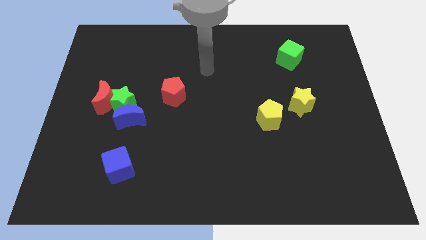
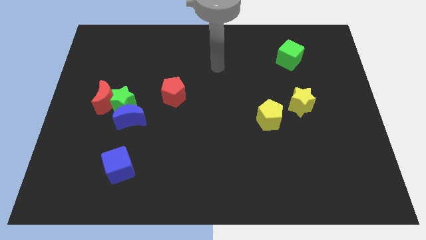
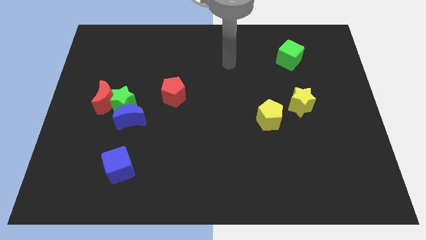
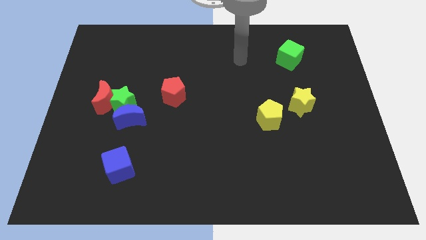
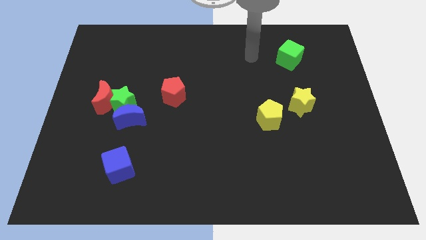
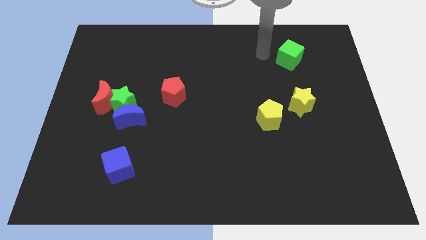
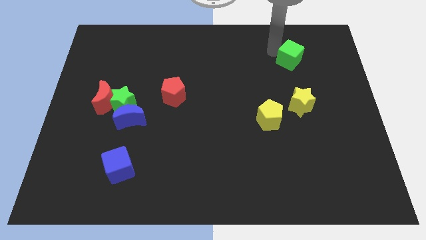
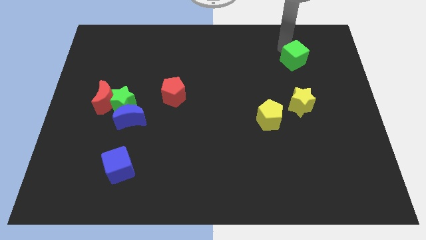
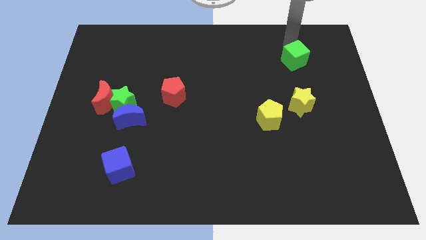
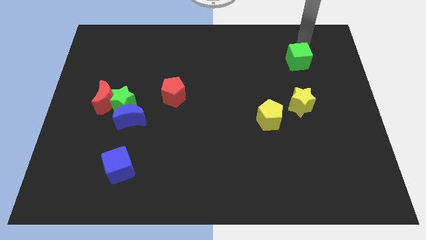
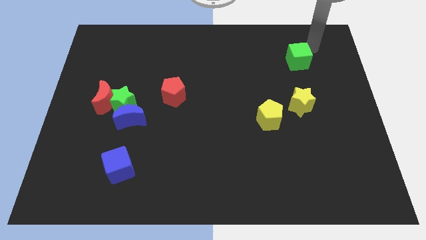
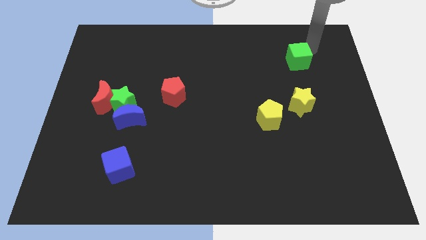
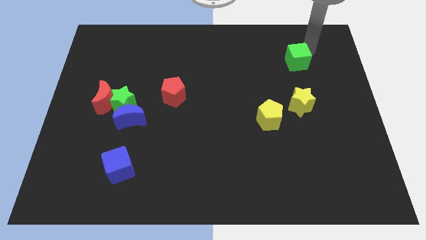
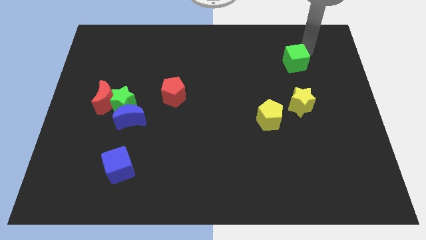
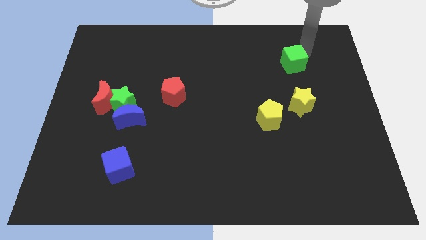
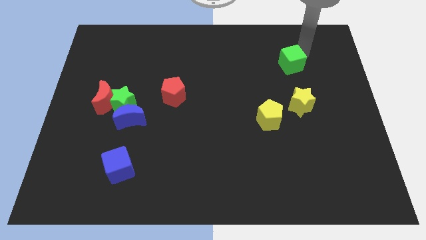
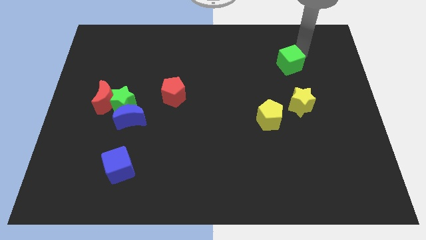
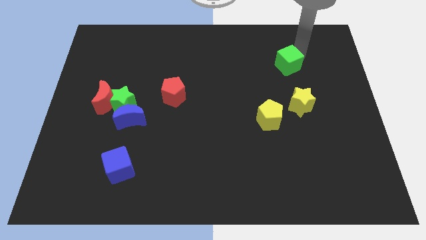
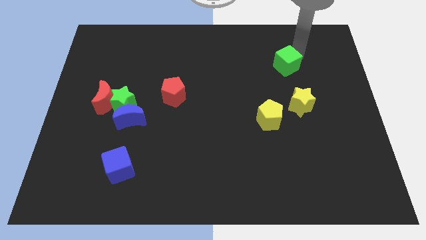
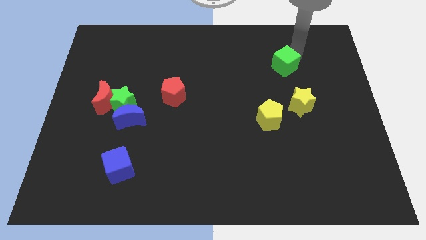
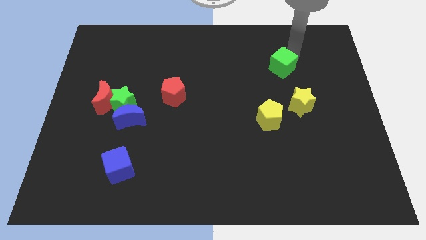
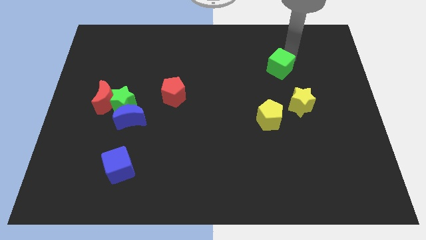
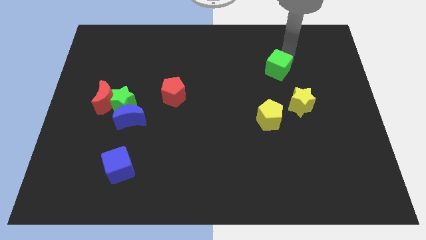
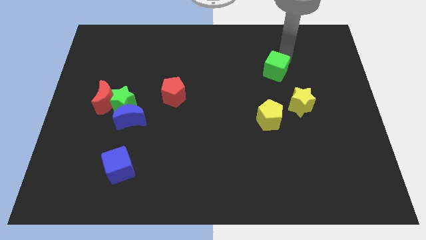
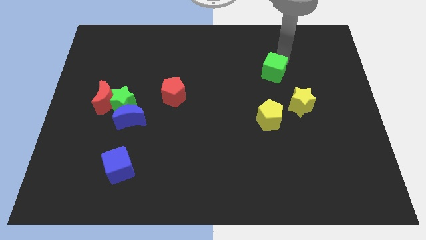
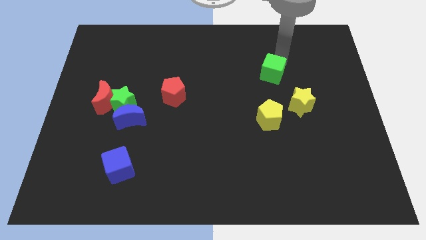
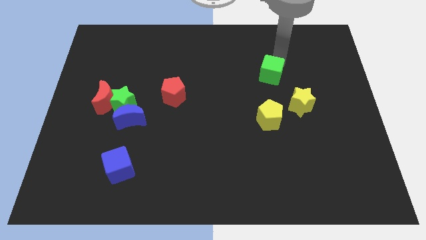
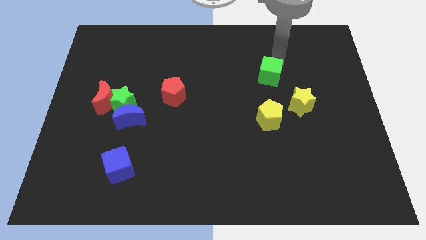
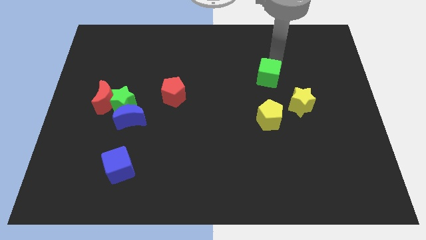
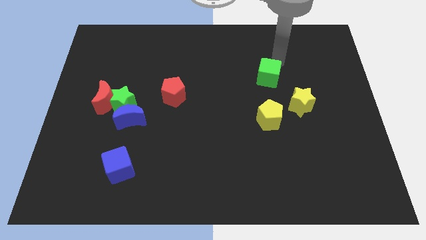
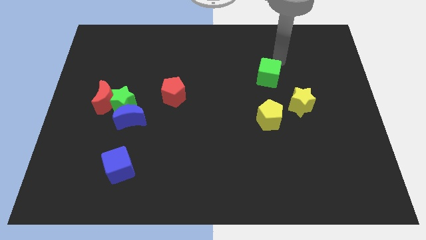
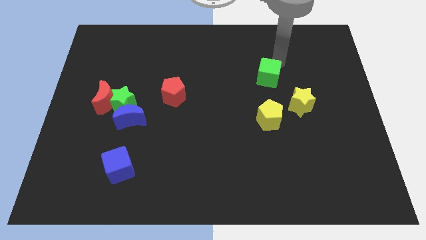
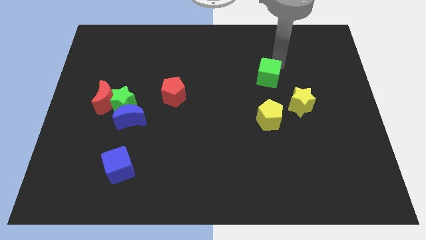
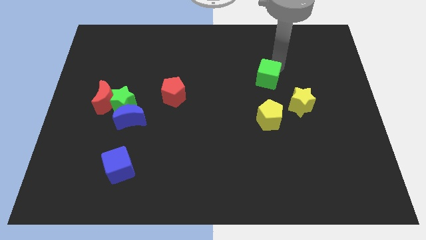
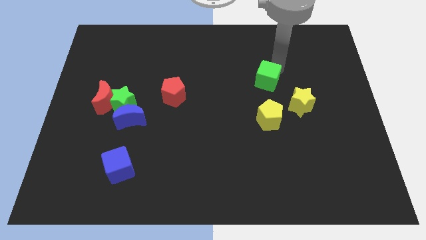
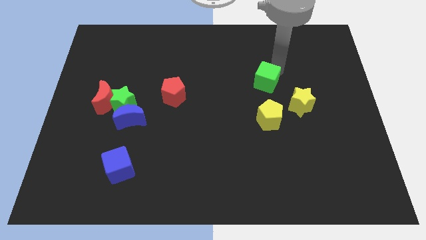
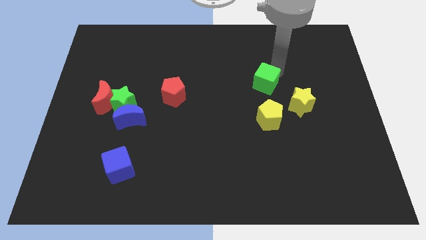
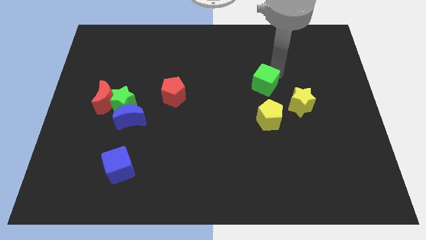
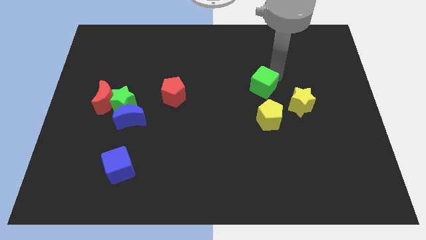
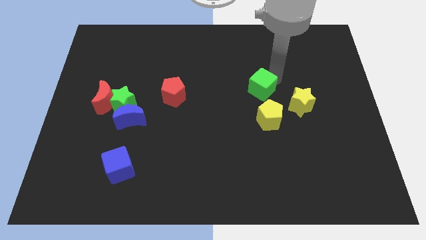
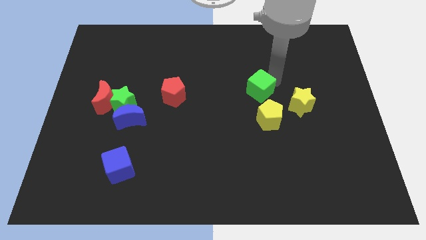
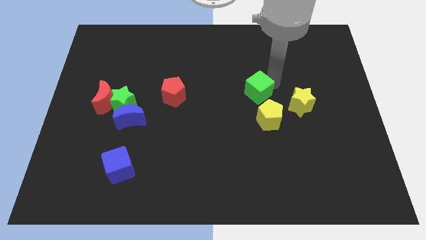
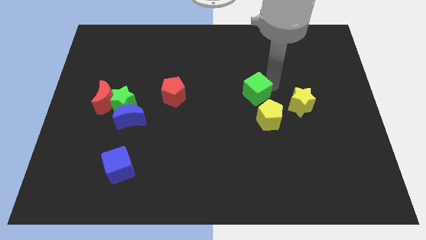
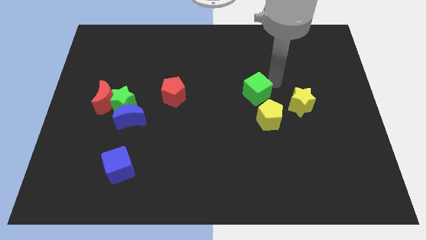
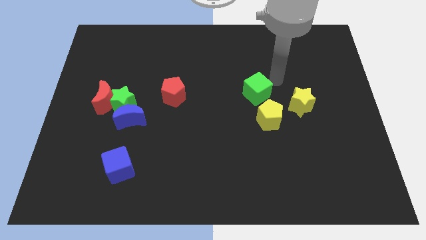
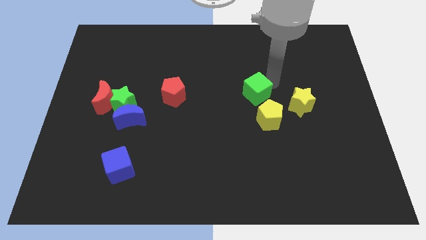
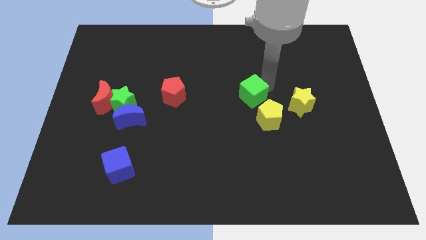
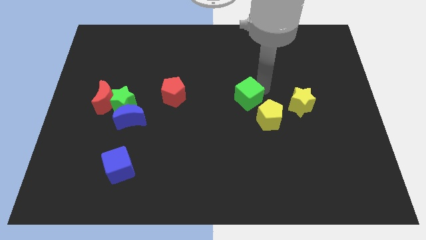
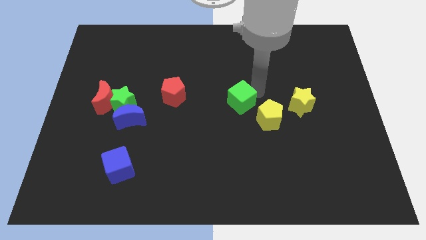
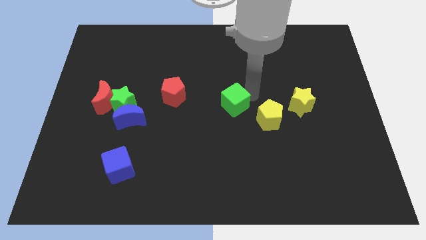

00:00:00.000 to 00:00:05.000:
slide the green cube downwards and to the left

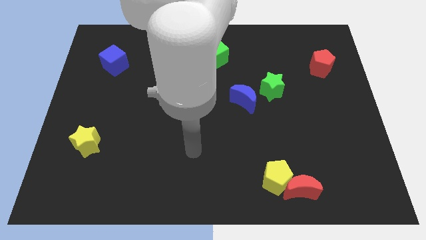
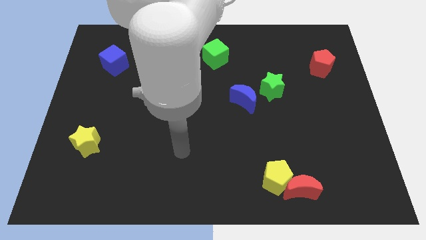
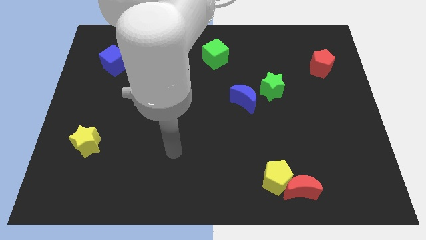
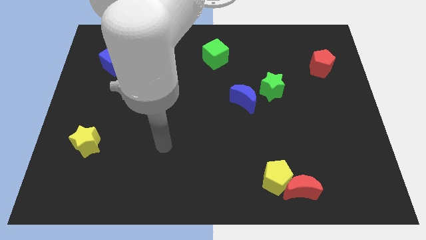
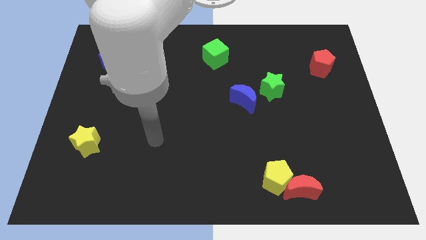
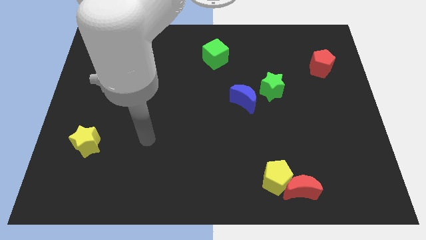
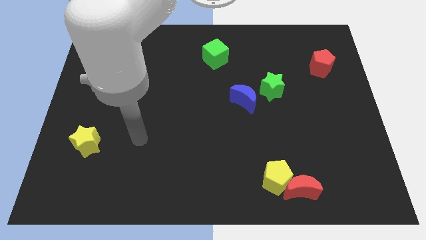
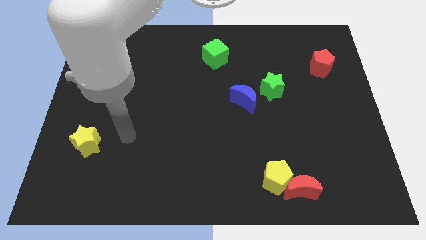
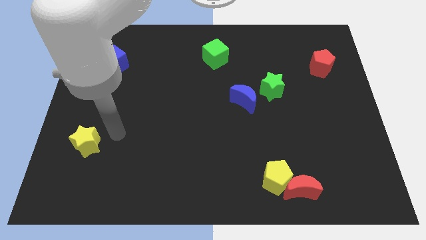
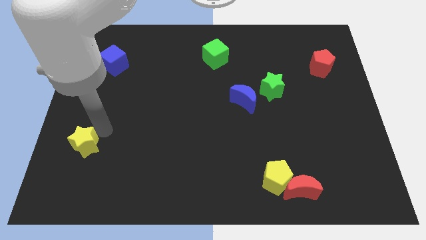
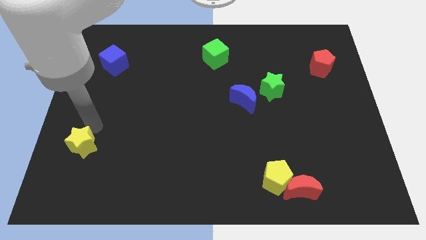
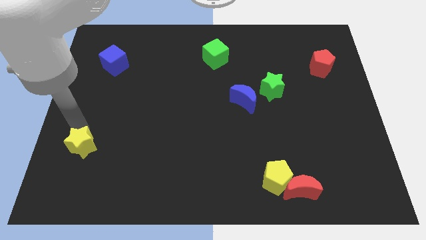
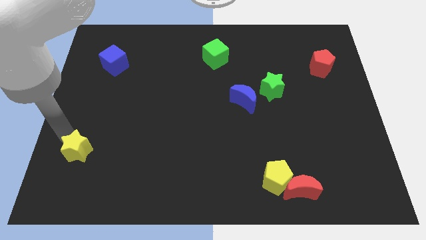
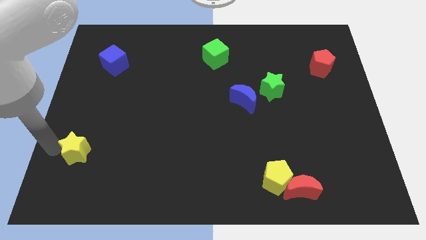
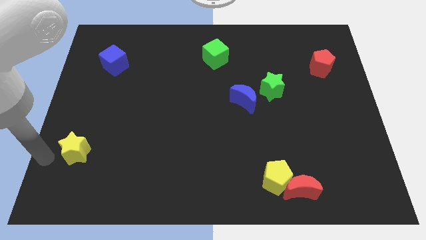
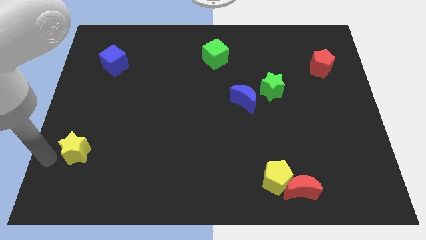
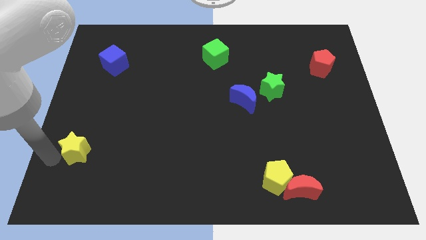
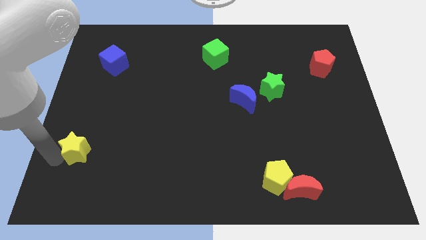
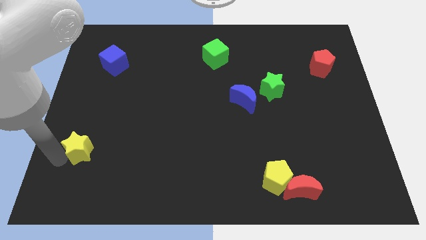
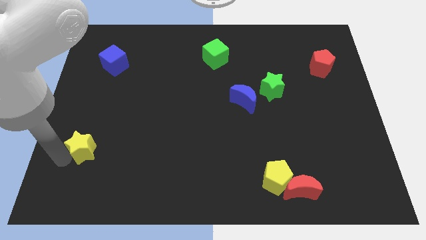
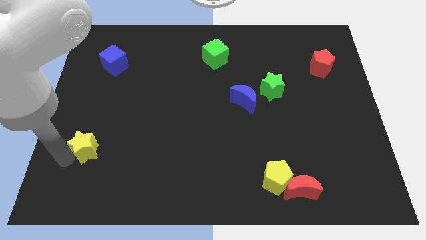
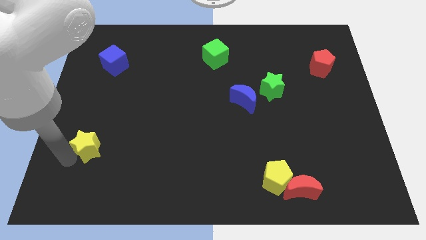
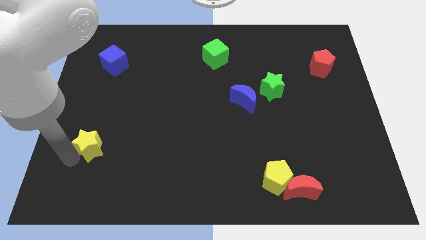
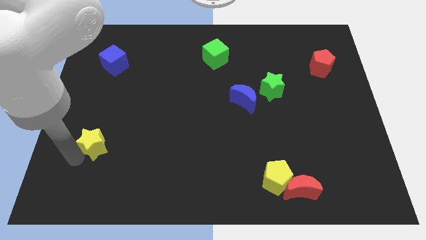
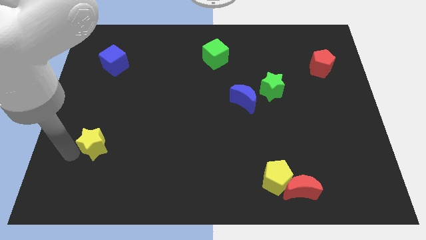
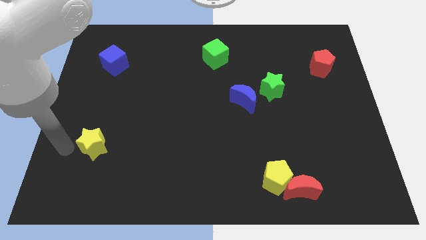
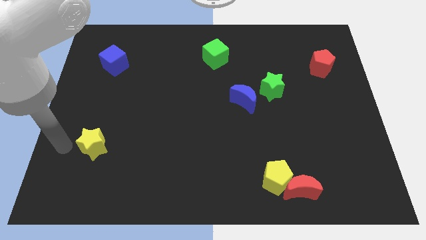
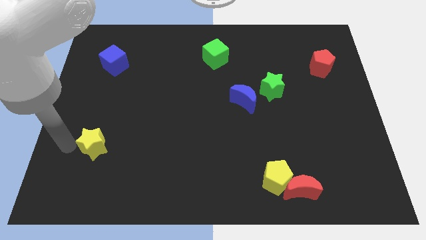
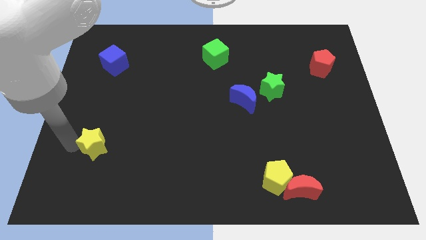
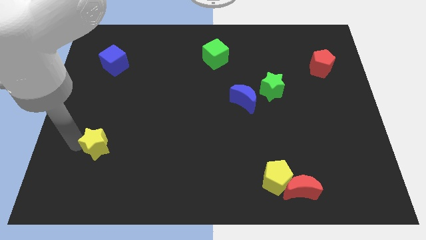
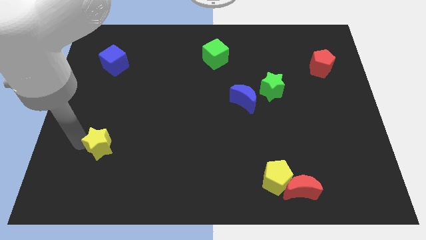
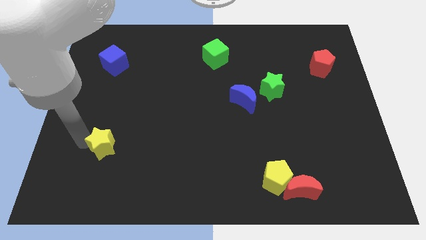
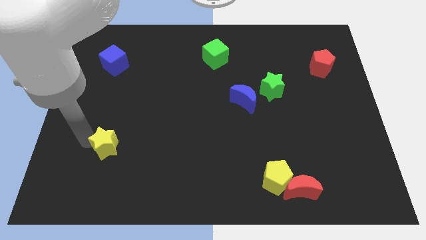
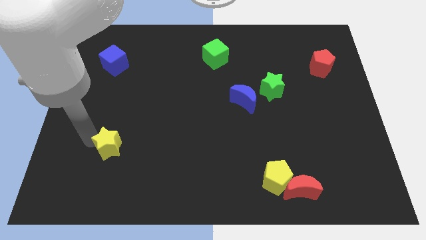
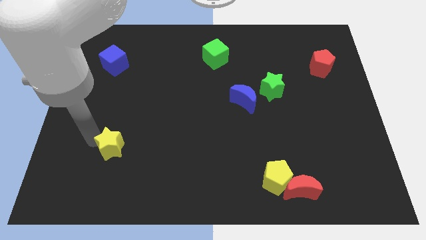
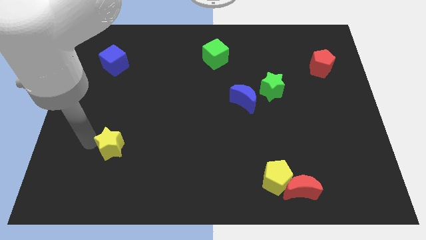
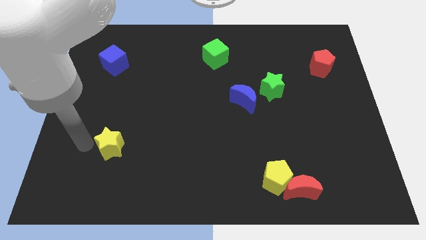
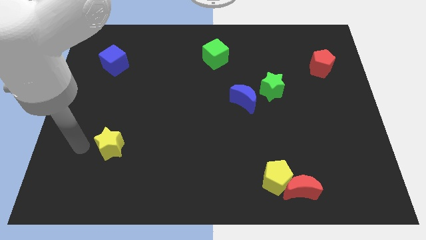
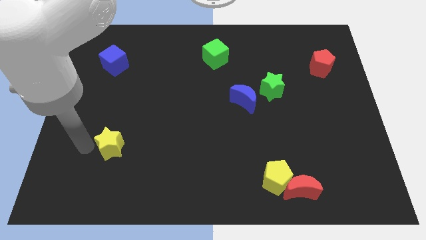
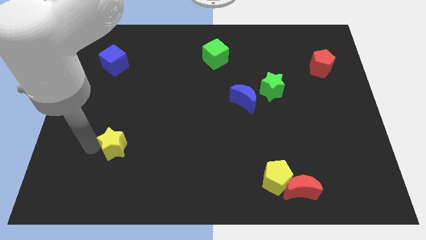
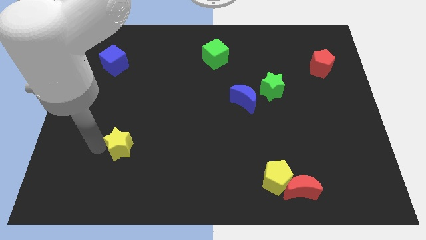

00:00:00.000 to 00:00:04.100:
move the yellow star right a bit
